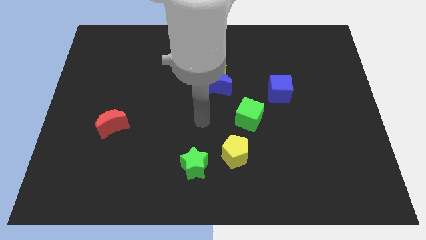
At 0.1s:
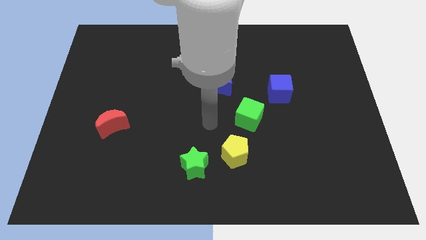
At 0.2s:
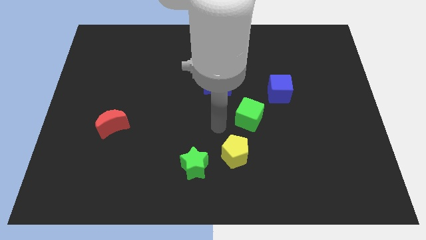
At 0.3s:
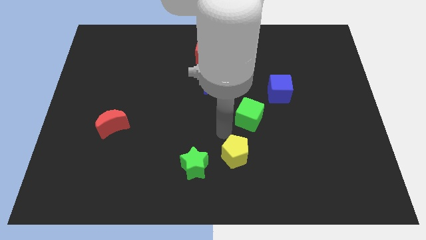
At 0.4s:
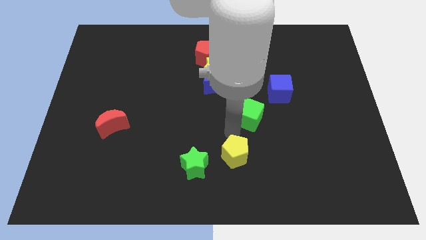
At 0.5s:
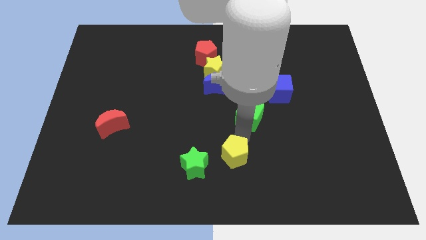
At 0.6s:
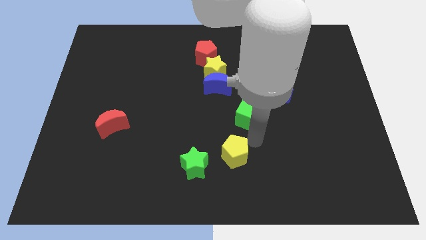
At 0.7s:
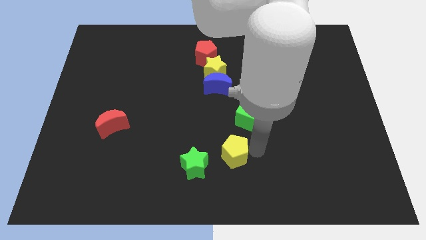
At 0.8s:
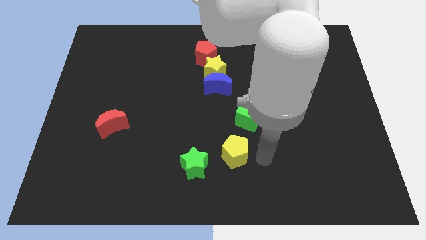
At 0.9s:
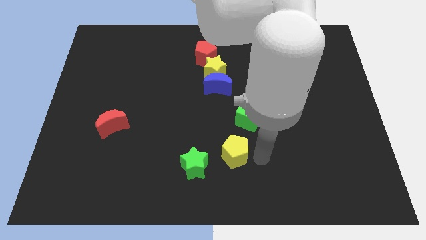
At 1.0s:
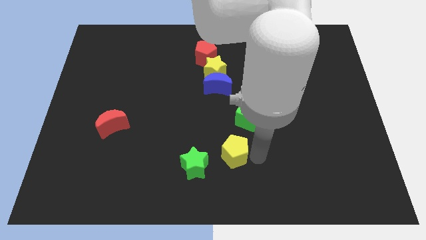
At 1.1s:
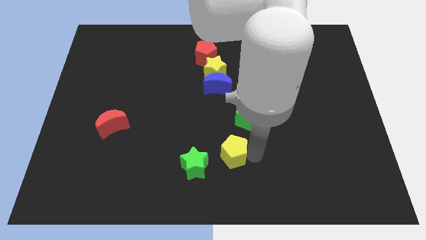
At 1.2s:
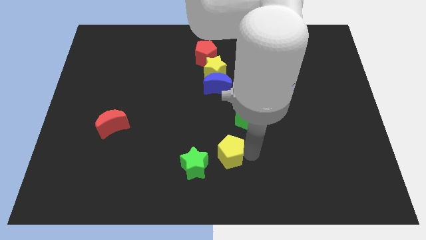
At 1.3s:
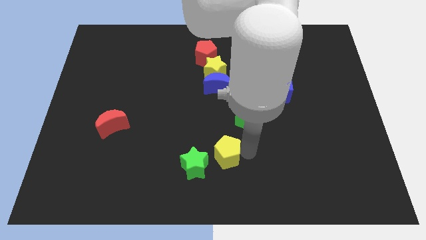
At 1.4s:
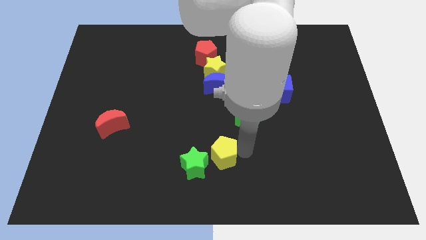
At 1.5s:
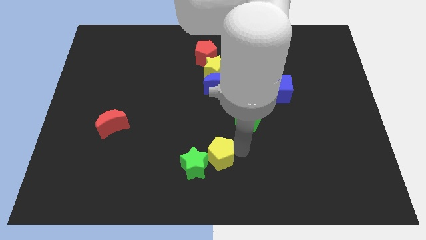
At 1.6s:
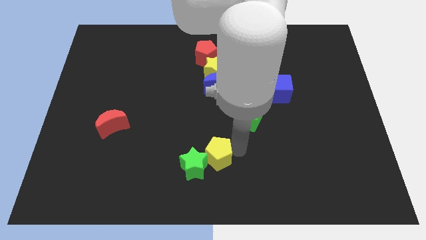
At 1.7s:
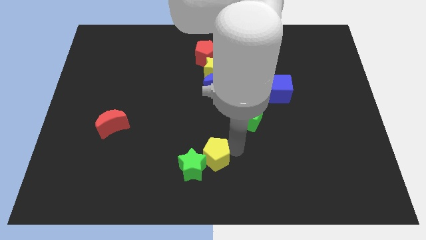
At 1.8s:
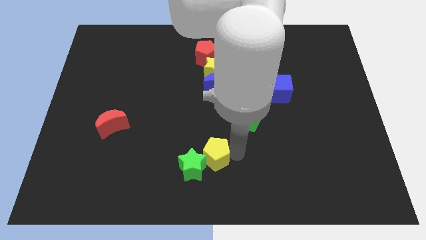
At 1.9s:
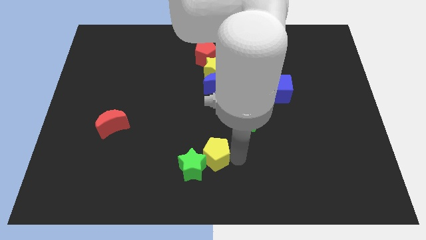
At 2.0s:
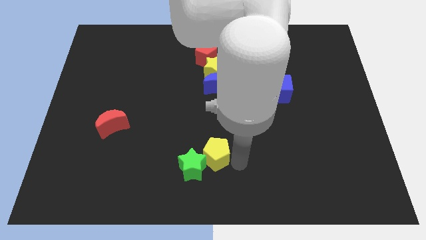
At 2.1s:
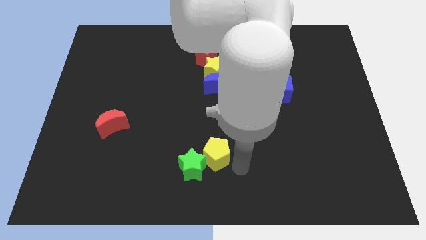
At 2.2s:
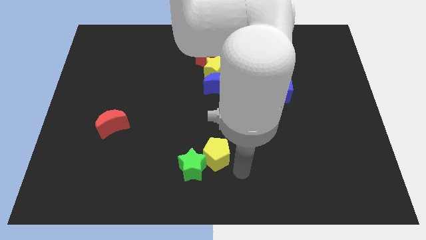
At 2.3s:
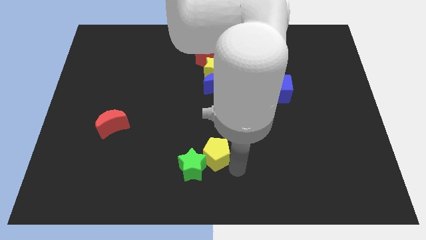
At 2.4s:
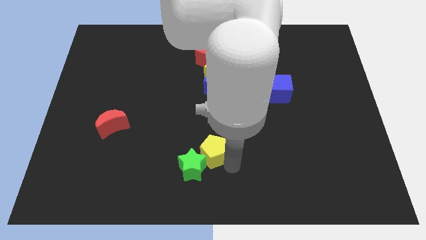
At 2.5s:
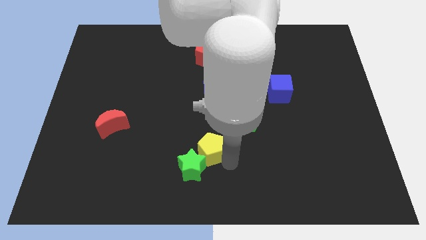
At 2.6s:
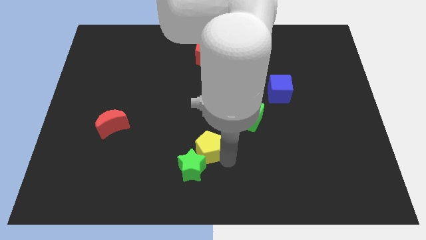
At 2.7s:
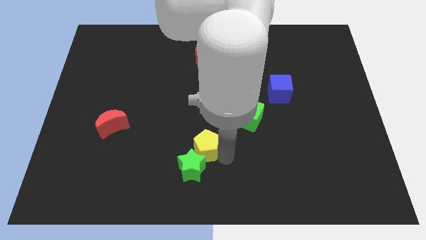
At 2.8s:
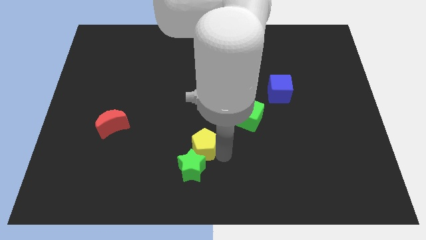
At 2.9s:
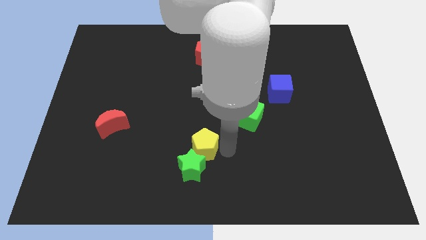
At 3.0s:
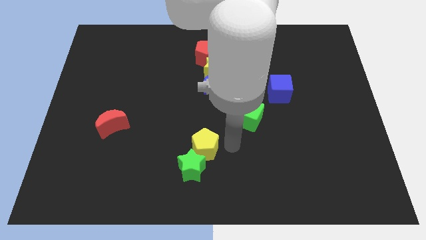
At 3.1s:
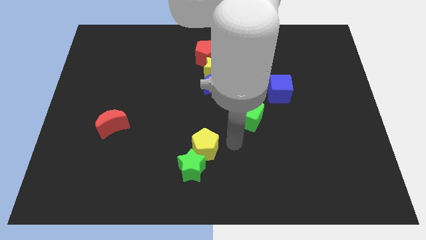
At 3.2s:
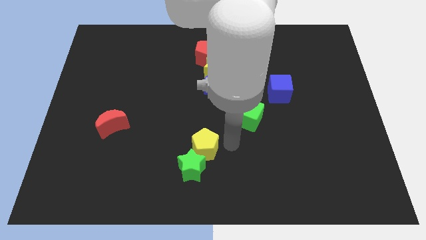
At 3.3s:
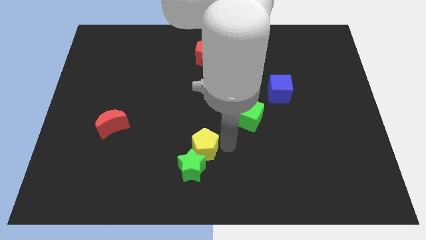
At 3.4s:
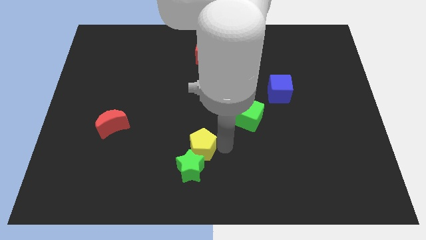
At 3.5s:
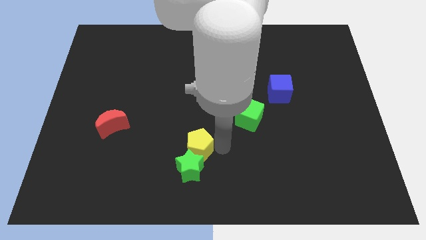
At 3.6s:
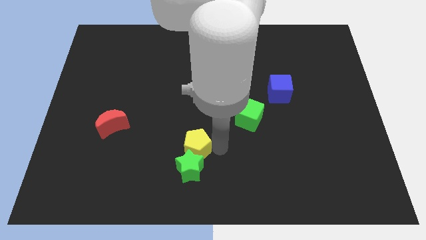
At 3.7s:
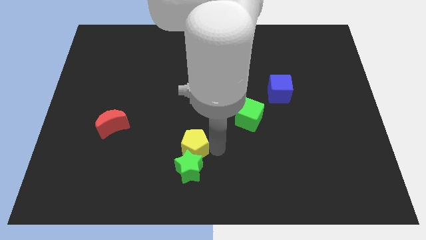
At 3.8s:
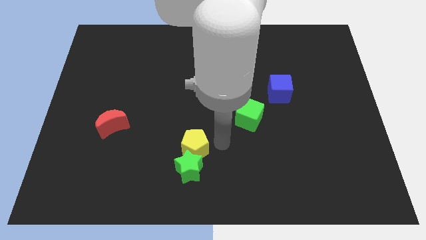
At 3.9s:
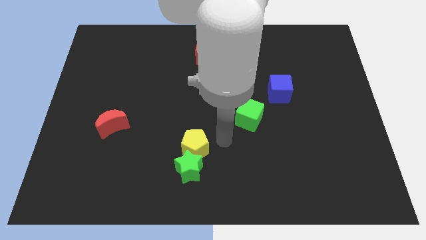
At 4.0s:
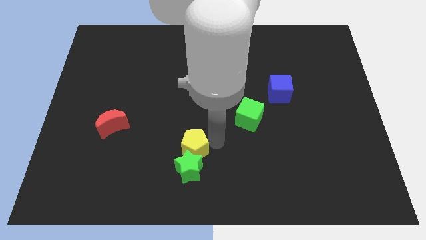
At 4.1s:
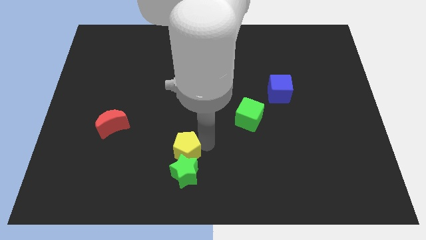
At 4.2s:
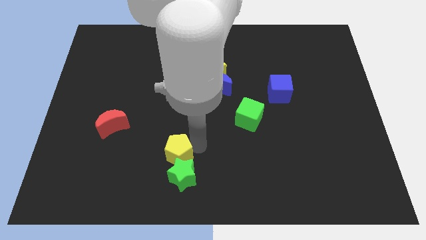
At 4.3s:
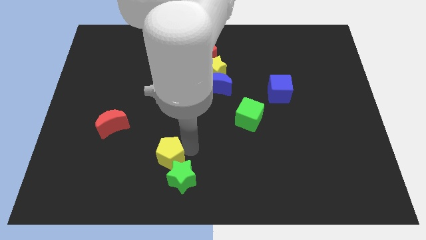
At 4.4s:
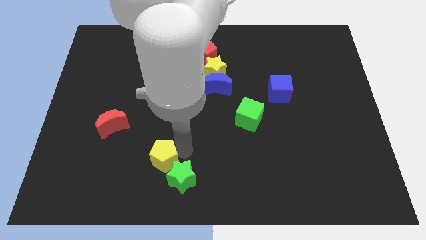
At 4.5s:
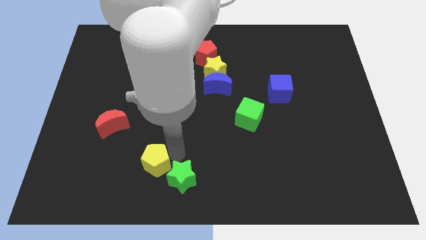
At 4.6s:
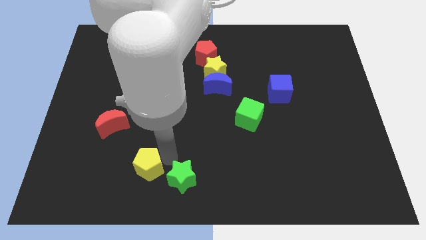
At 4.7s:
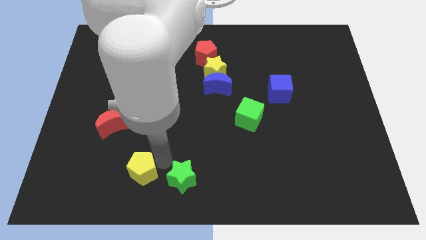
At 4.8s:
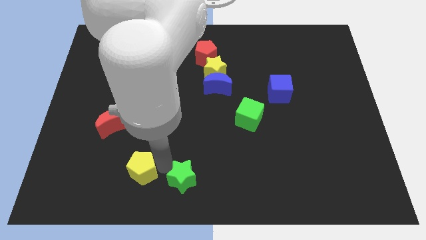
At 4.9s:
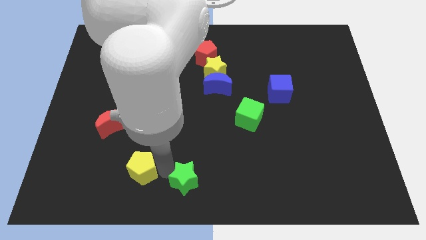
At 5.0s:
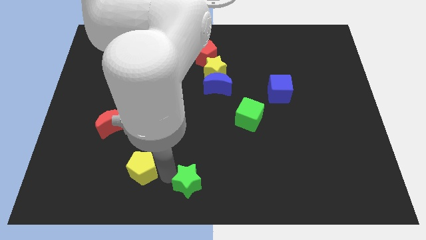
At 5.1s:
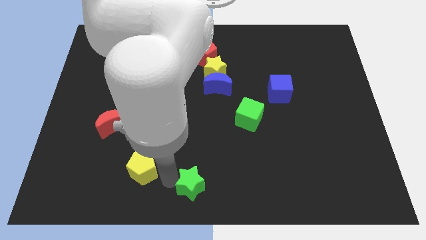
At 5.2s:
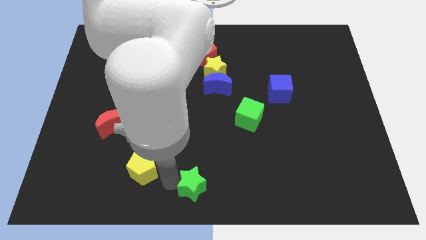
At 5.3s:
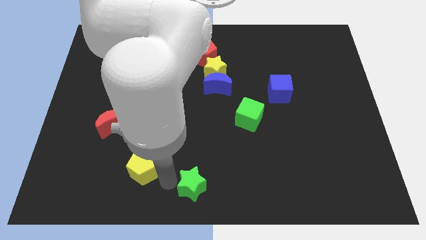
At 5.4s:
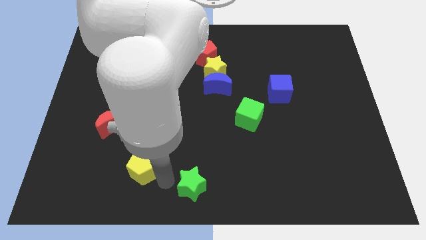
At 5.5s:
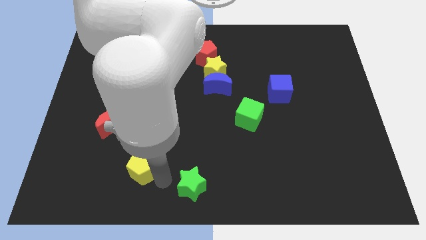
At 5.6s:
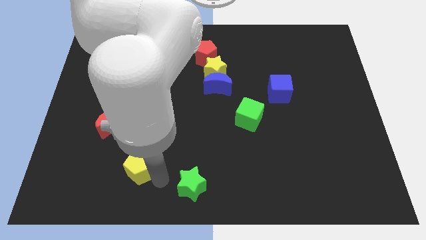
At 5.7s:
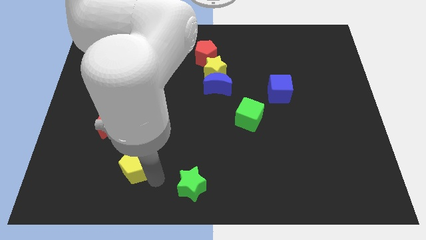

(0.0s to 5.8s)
slide the yellow pentagon to the left

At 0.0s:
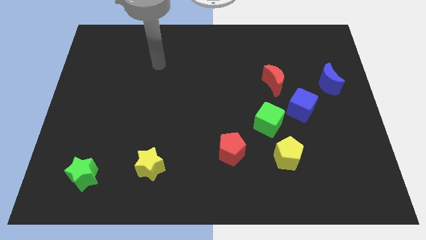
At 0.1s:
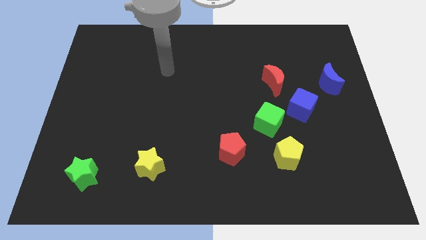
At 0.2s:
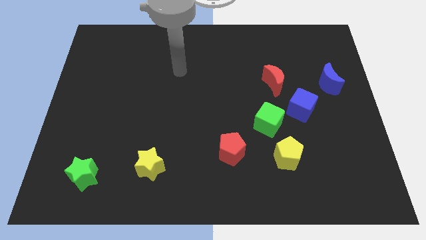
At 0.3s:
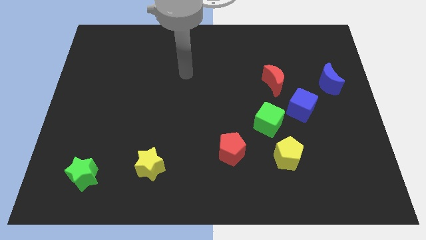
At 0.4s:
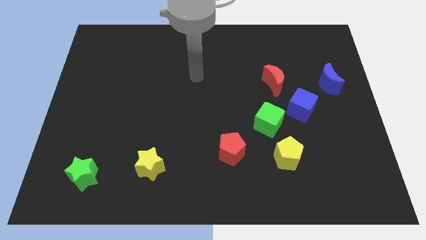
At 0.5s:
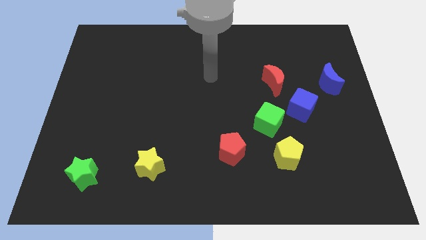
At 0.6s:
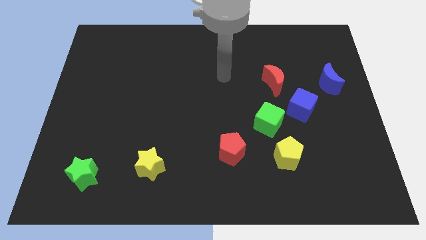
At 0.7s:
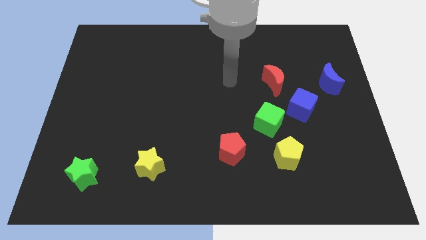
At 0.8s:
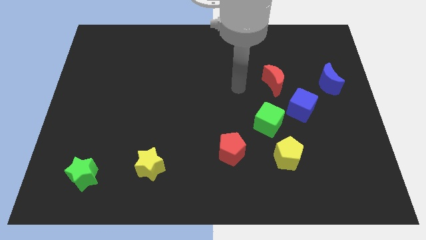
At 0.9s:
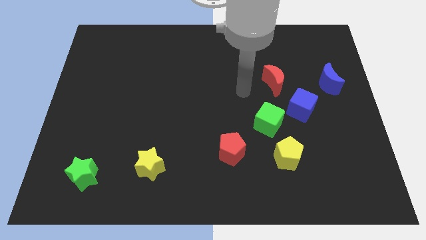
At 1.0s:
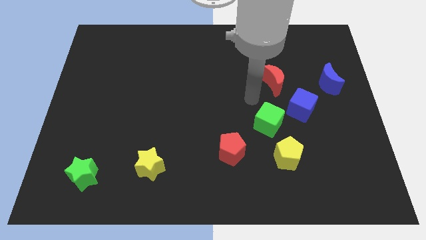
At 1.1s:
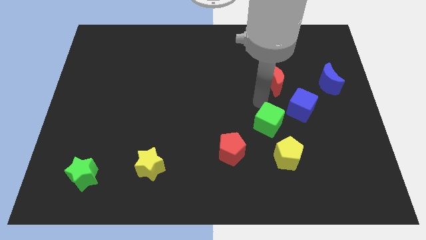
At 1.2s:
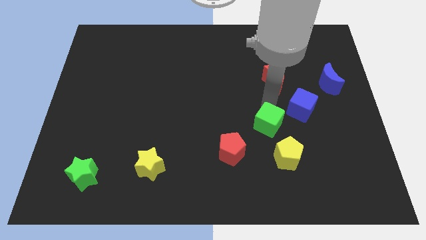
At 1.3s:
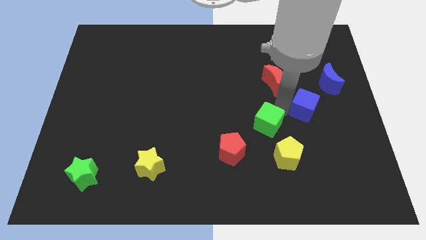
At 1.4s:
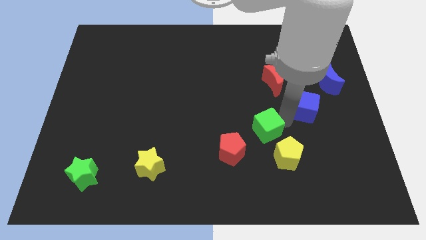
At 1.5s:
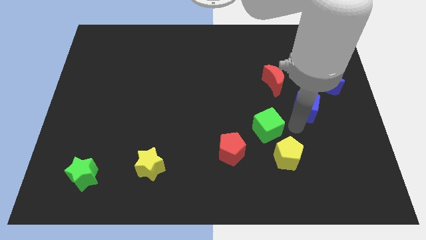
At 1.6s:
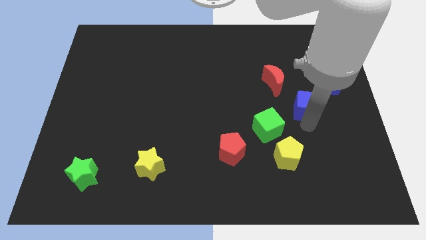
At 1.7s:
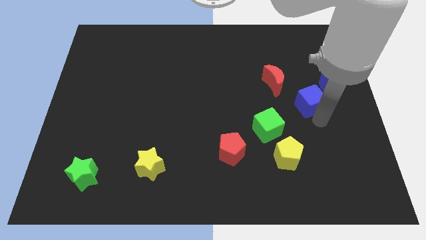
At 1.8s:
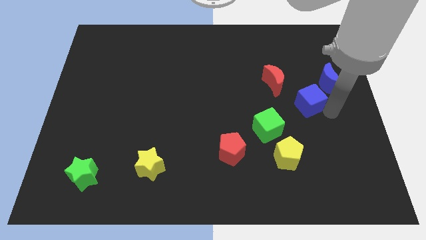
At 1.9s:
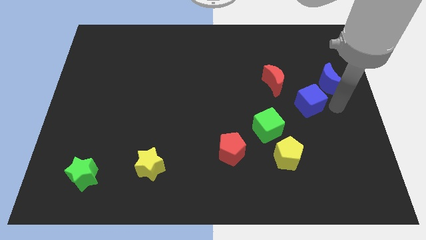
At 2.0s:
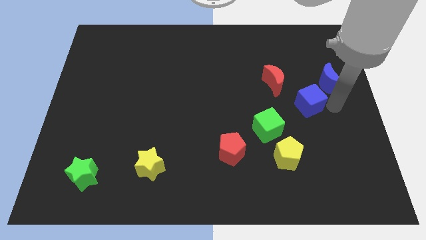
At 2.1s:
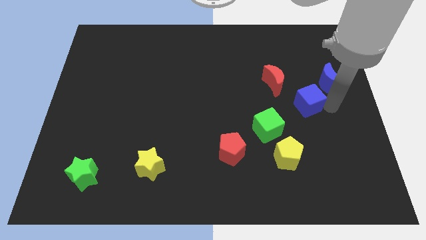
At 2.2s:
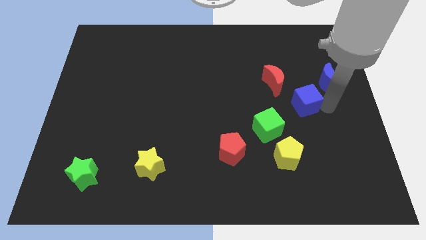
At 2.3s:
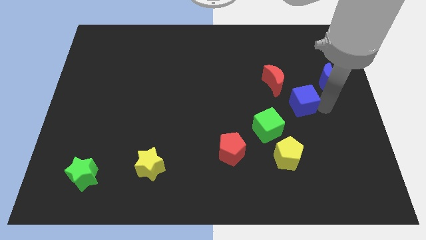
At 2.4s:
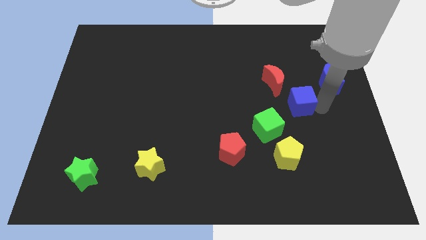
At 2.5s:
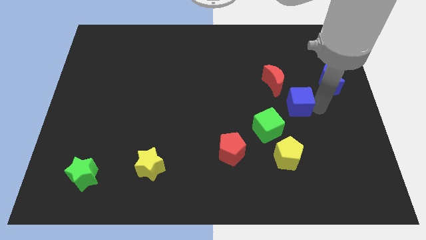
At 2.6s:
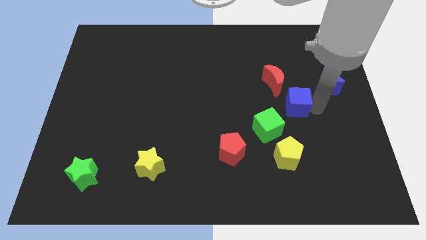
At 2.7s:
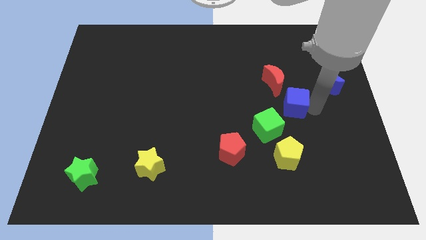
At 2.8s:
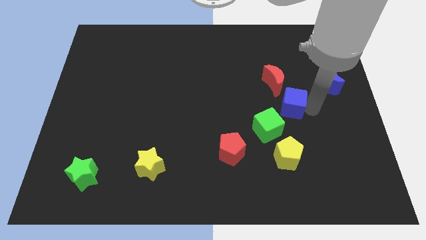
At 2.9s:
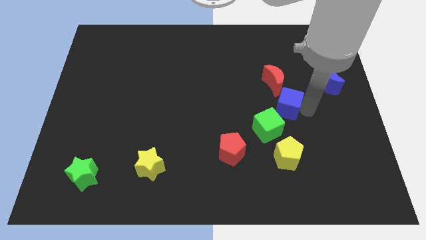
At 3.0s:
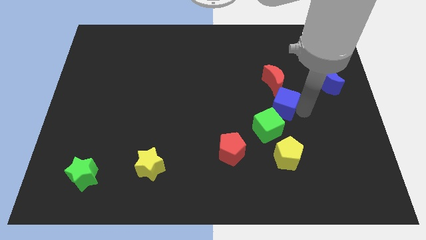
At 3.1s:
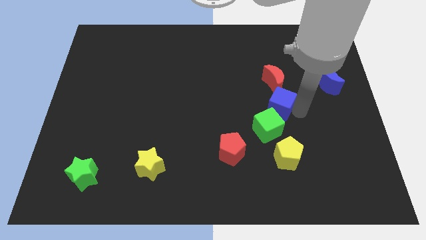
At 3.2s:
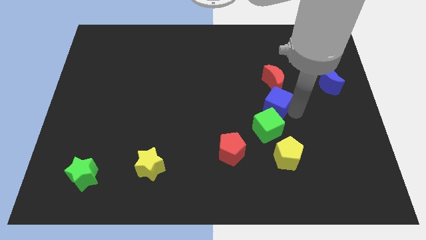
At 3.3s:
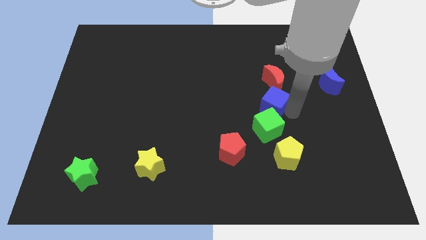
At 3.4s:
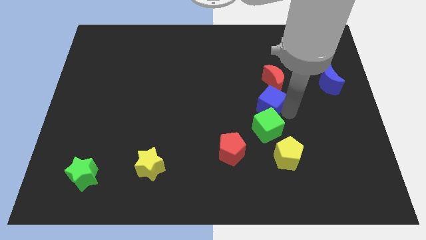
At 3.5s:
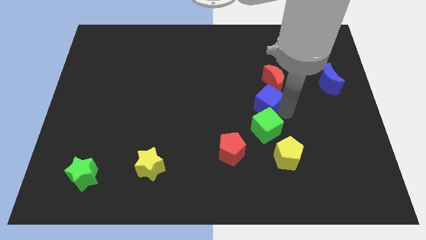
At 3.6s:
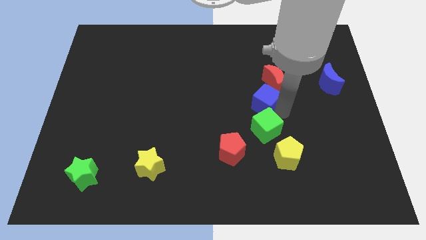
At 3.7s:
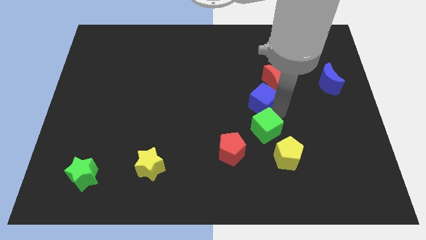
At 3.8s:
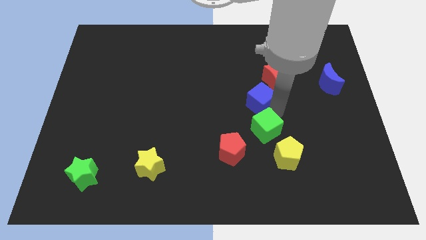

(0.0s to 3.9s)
move the blue cube a bit diagonally up and to the left
